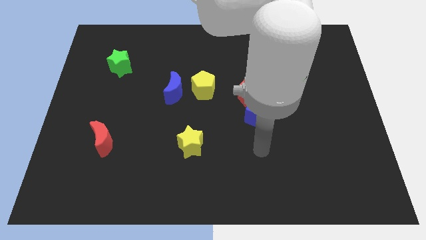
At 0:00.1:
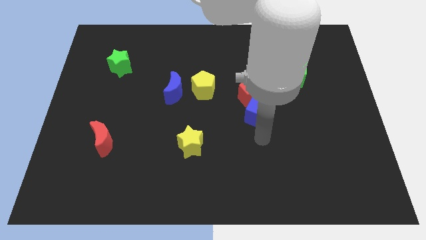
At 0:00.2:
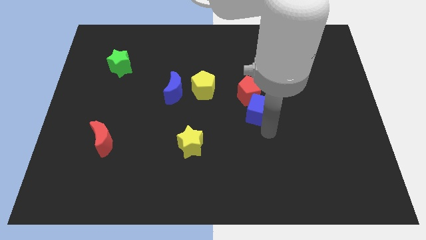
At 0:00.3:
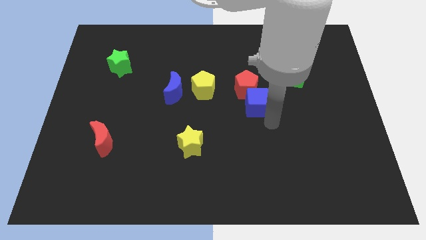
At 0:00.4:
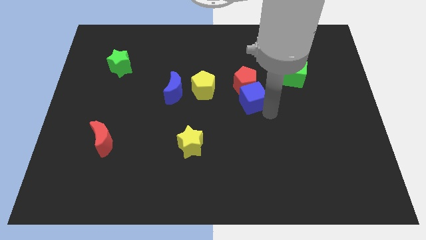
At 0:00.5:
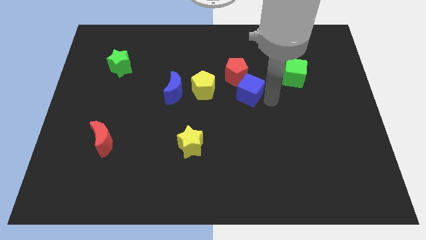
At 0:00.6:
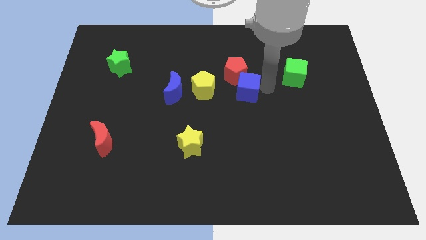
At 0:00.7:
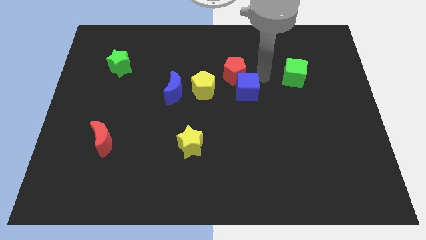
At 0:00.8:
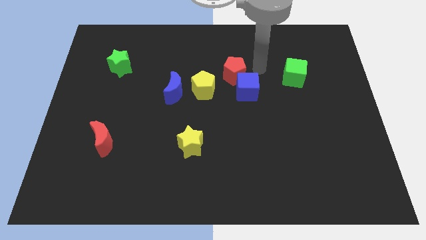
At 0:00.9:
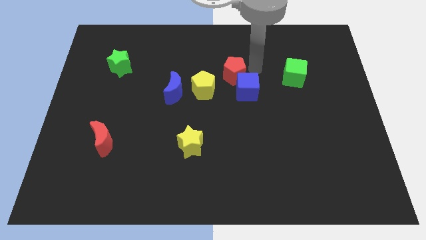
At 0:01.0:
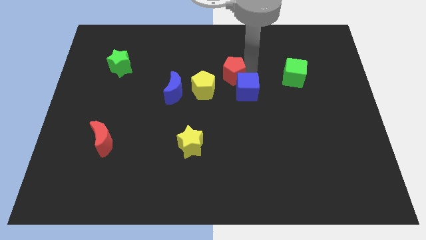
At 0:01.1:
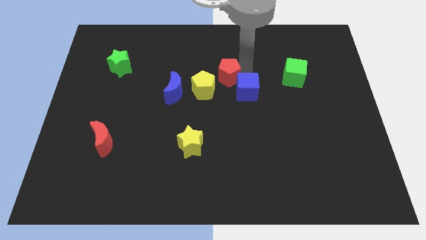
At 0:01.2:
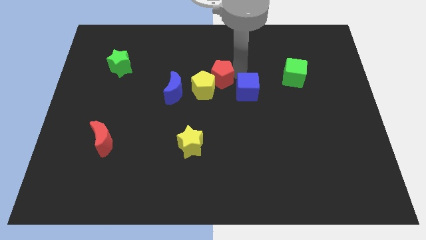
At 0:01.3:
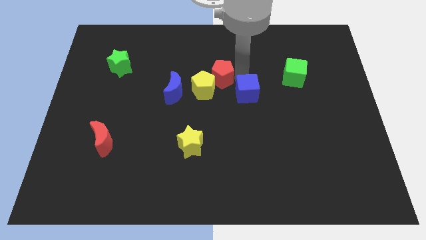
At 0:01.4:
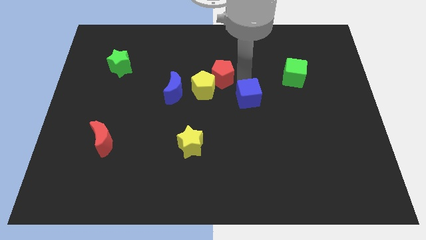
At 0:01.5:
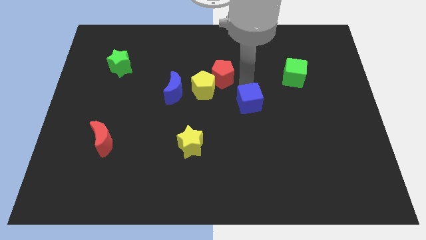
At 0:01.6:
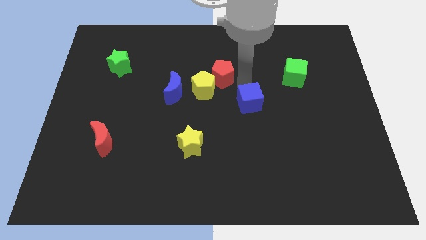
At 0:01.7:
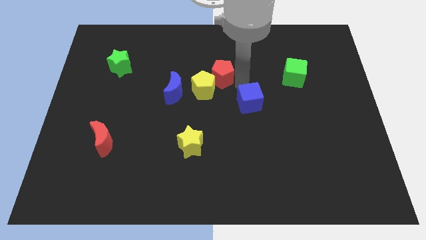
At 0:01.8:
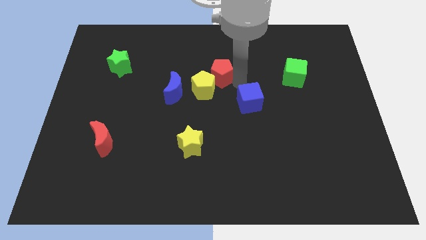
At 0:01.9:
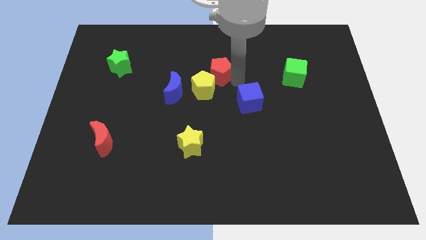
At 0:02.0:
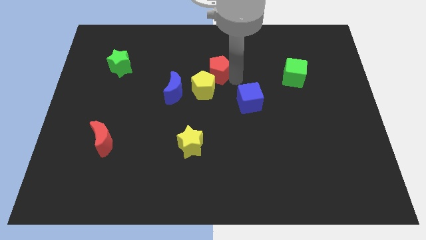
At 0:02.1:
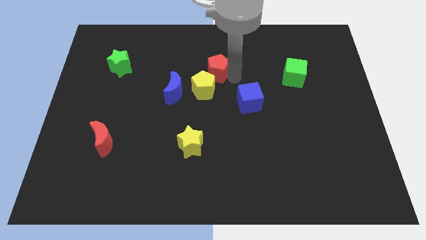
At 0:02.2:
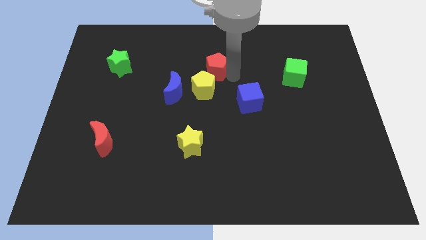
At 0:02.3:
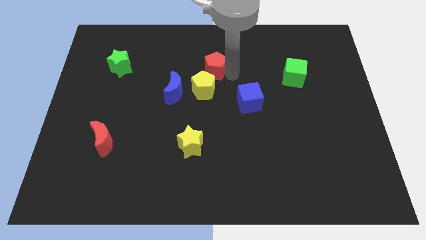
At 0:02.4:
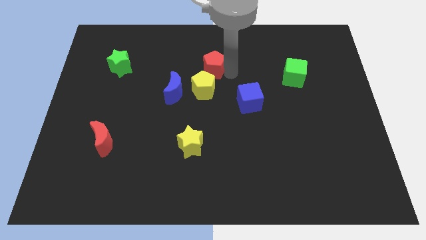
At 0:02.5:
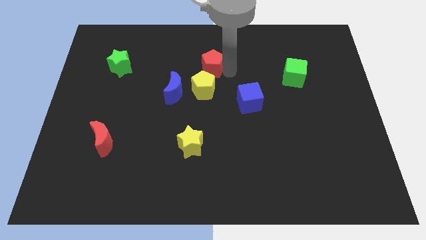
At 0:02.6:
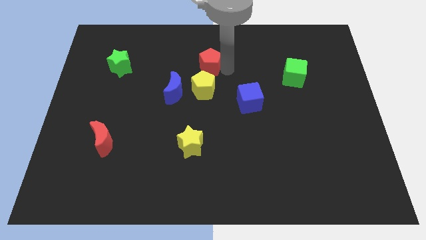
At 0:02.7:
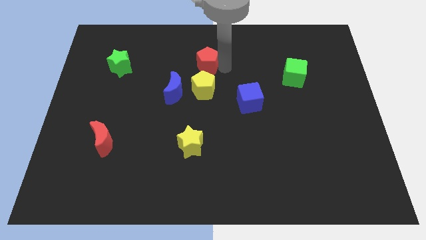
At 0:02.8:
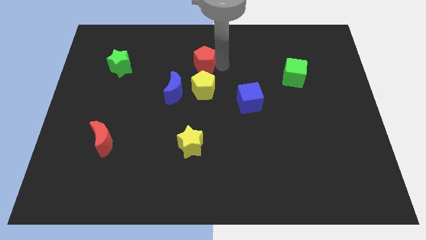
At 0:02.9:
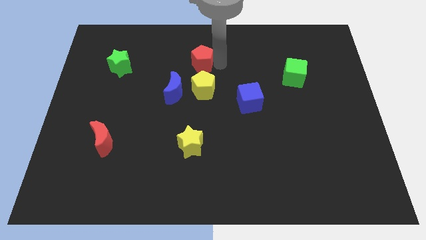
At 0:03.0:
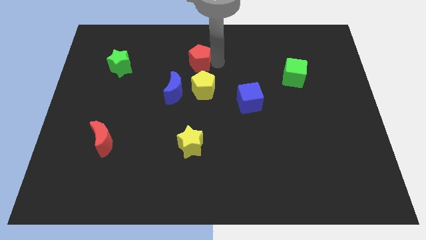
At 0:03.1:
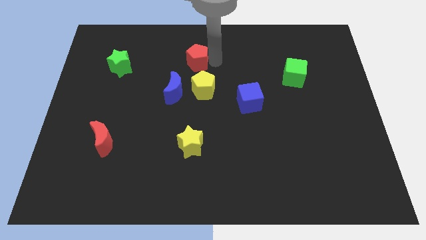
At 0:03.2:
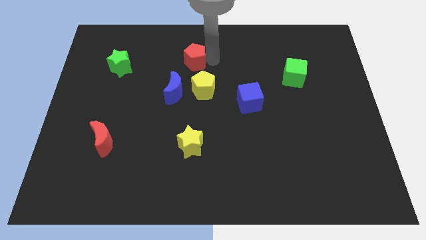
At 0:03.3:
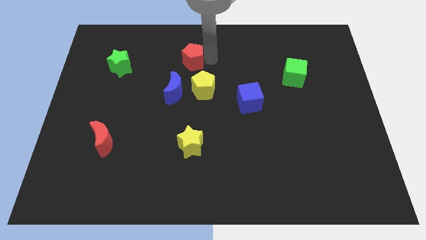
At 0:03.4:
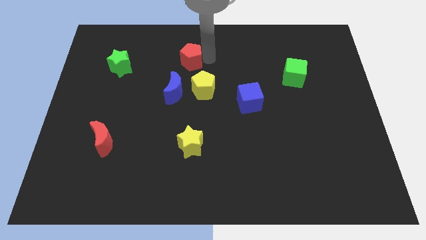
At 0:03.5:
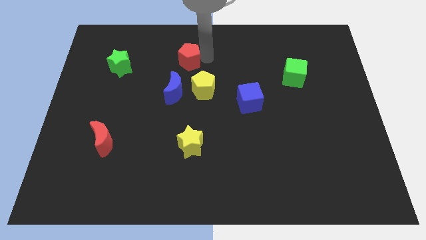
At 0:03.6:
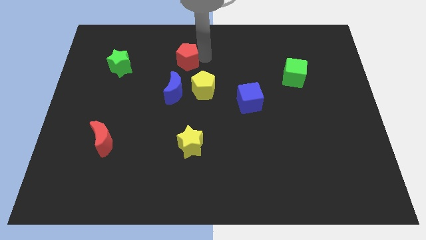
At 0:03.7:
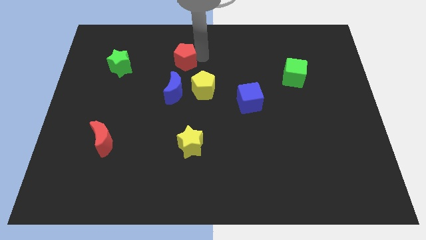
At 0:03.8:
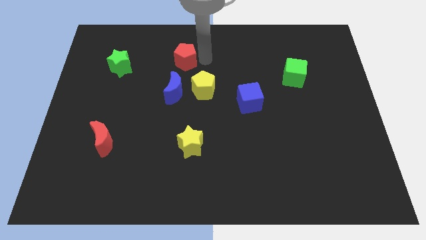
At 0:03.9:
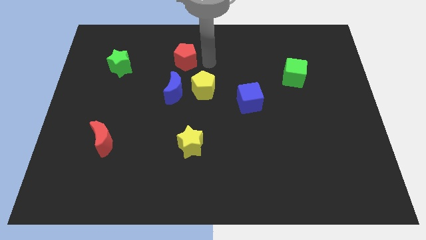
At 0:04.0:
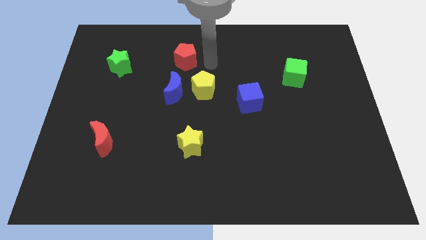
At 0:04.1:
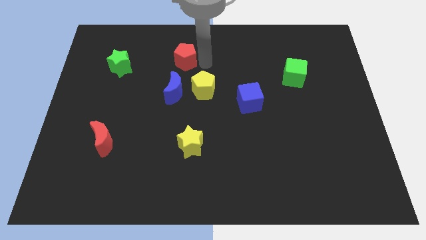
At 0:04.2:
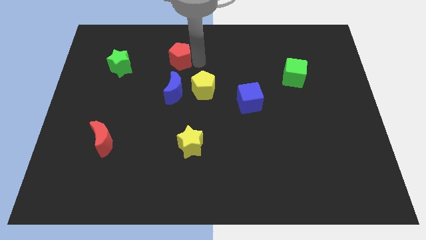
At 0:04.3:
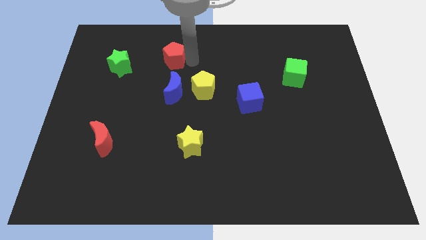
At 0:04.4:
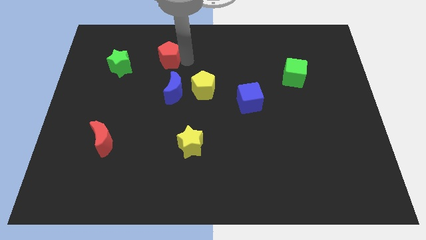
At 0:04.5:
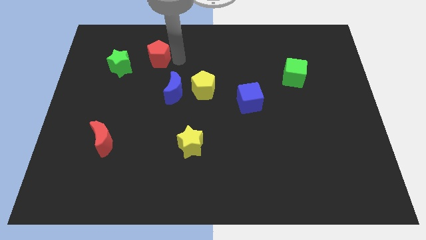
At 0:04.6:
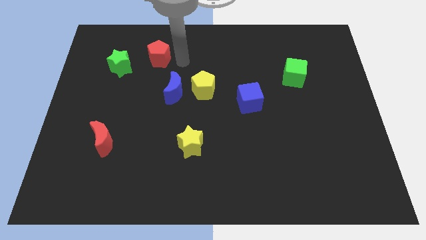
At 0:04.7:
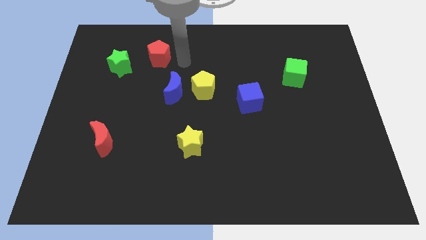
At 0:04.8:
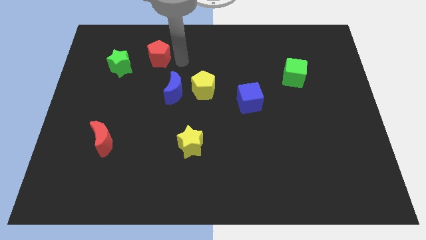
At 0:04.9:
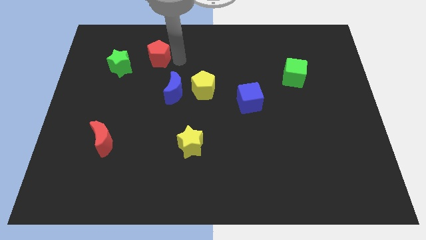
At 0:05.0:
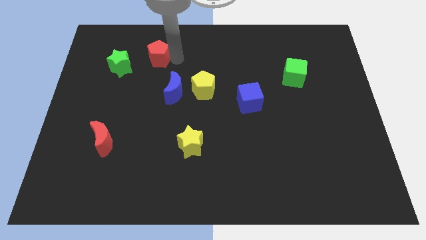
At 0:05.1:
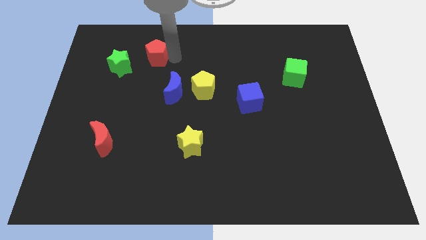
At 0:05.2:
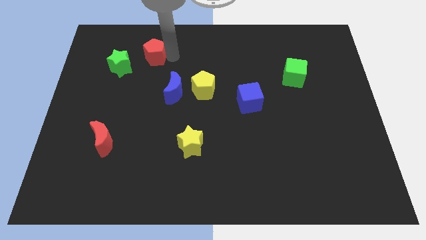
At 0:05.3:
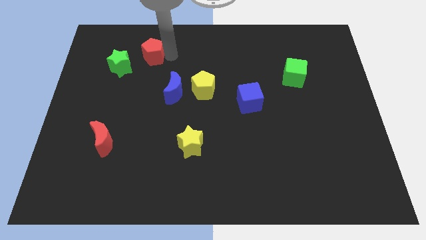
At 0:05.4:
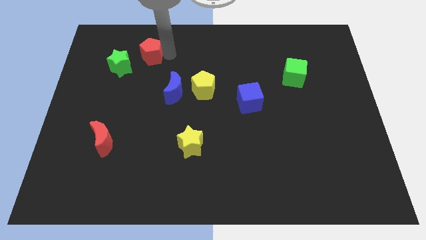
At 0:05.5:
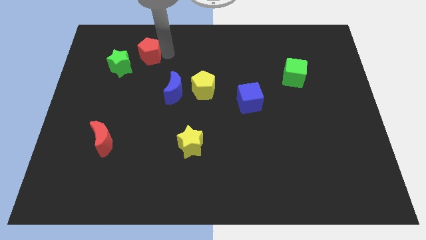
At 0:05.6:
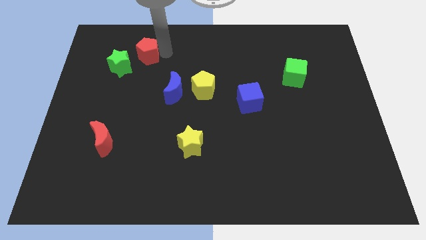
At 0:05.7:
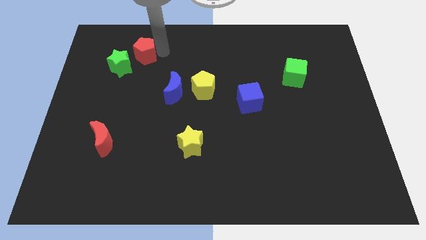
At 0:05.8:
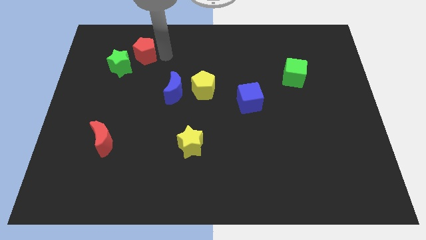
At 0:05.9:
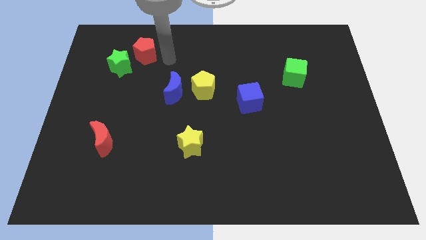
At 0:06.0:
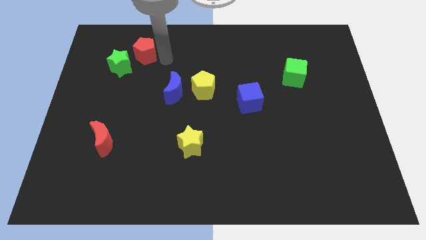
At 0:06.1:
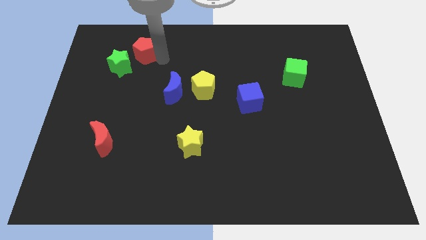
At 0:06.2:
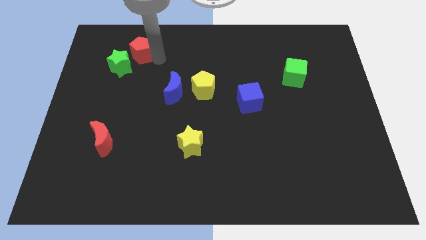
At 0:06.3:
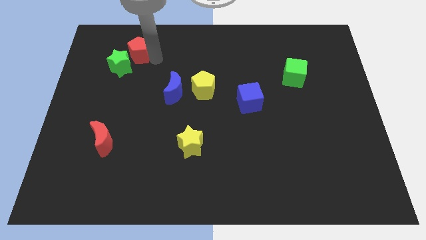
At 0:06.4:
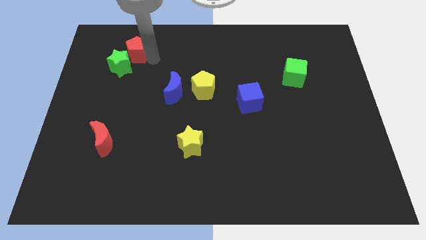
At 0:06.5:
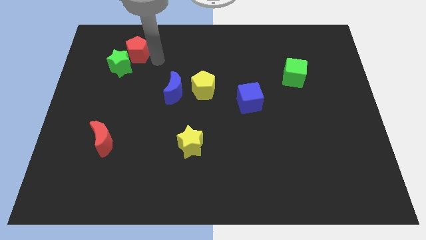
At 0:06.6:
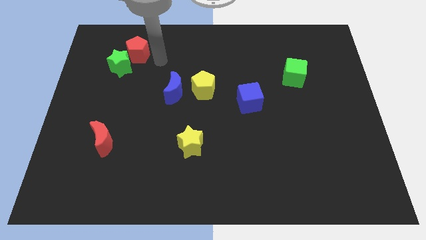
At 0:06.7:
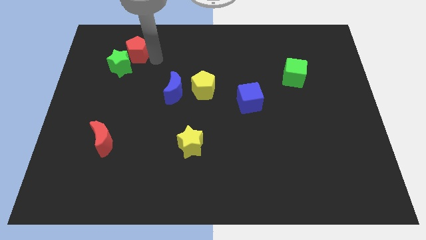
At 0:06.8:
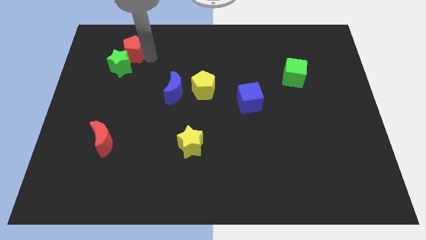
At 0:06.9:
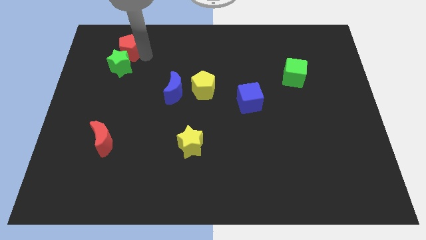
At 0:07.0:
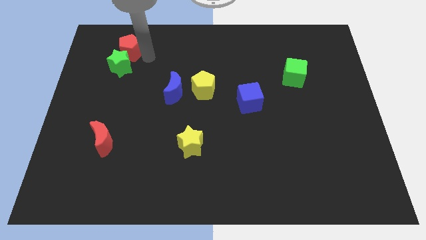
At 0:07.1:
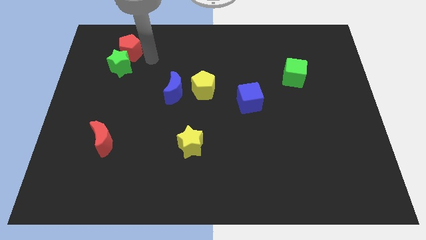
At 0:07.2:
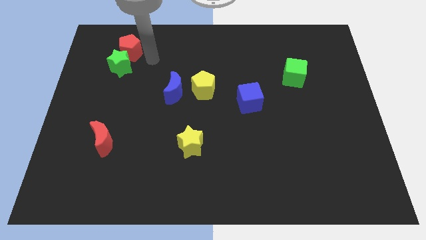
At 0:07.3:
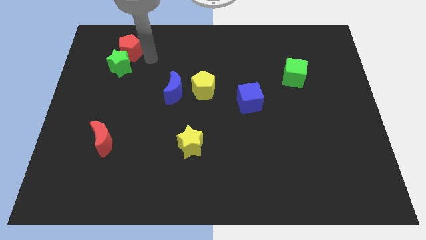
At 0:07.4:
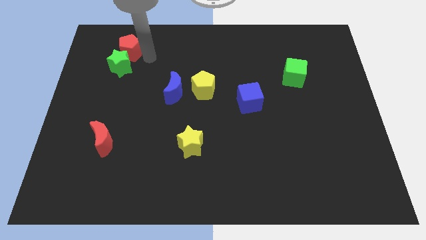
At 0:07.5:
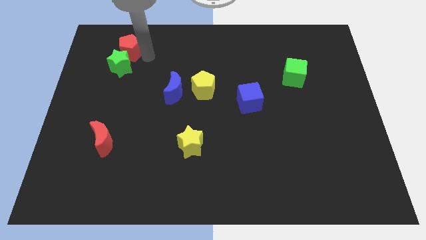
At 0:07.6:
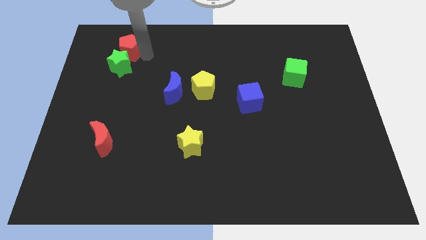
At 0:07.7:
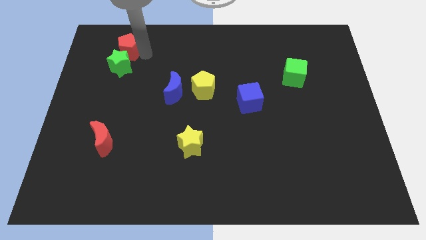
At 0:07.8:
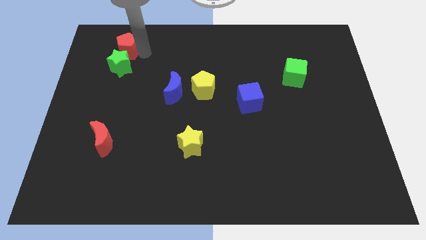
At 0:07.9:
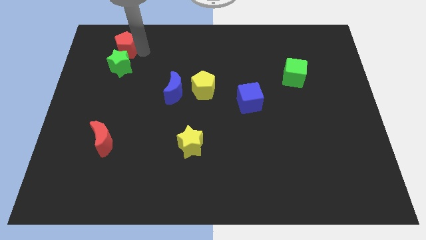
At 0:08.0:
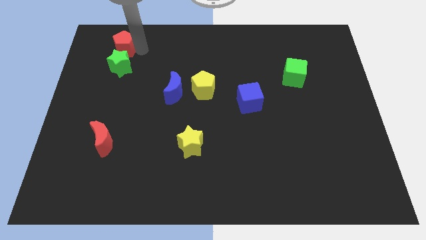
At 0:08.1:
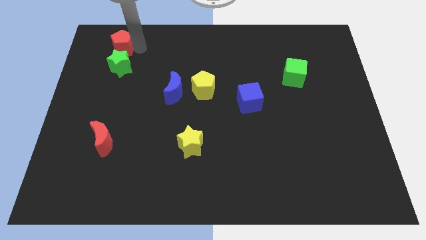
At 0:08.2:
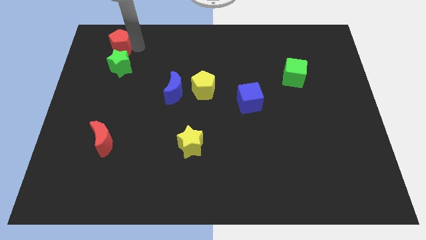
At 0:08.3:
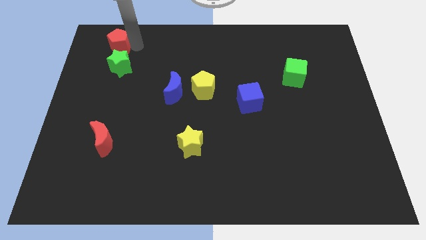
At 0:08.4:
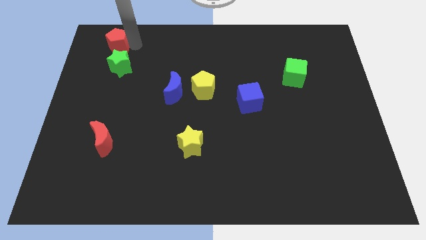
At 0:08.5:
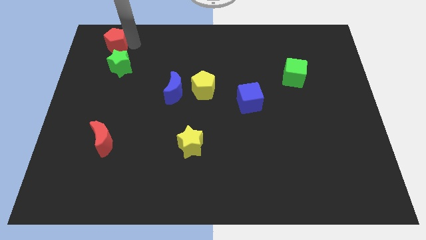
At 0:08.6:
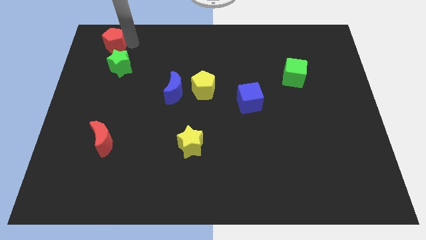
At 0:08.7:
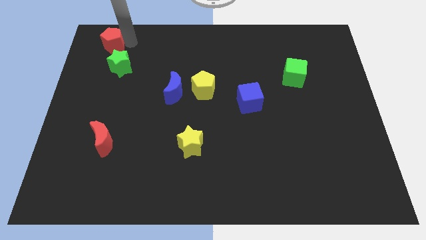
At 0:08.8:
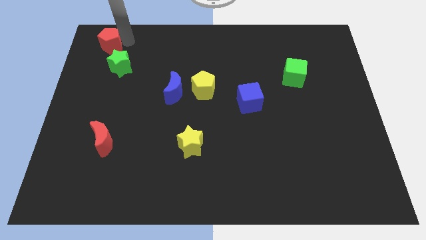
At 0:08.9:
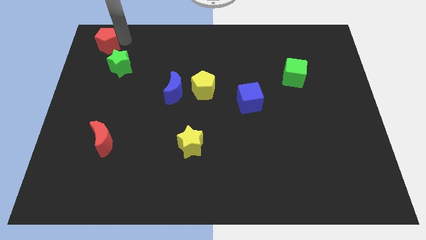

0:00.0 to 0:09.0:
put the red pentagon to the upper left corner
